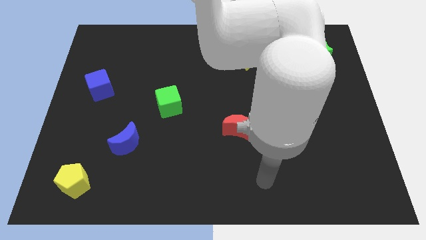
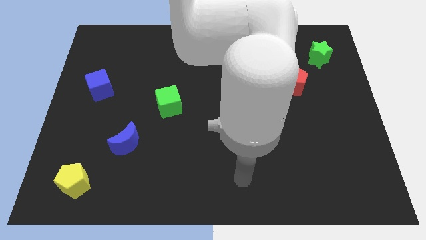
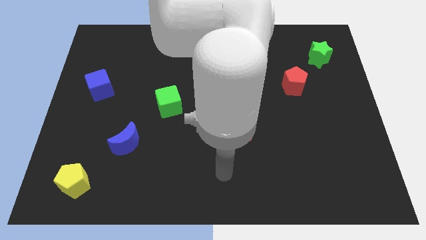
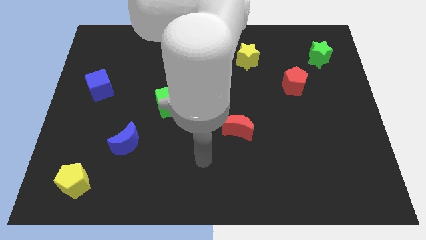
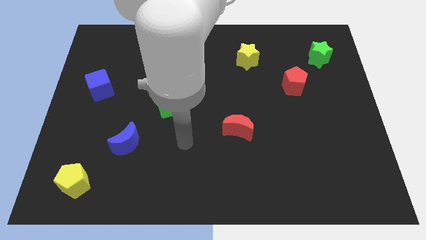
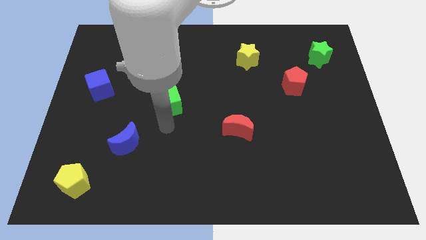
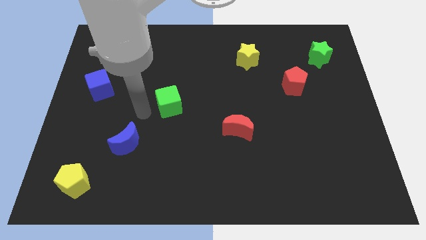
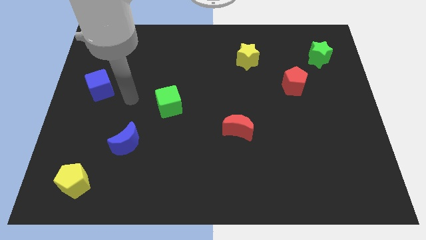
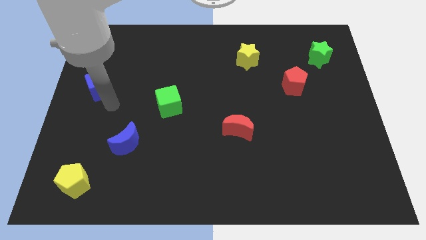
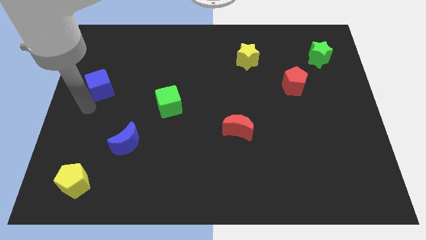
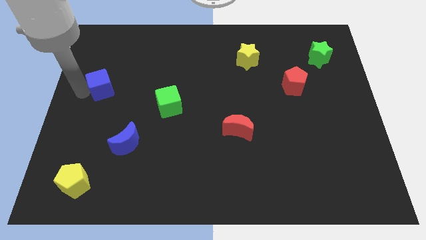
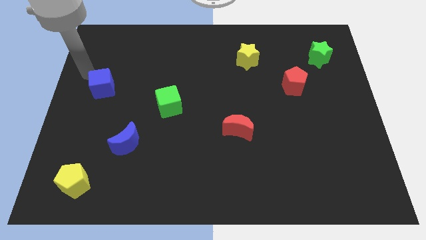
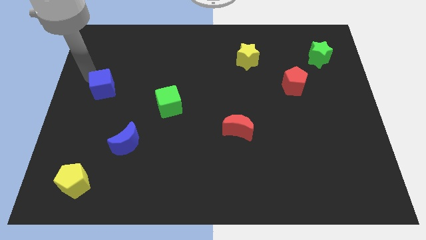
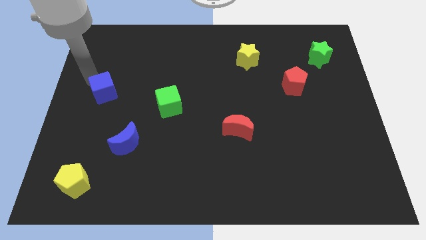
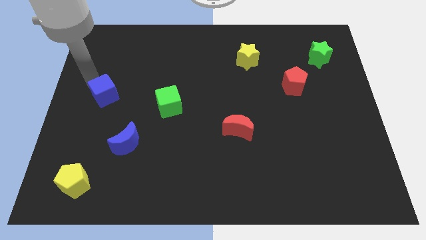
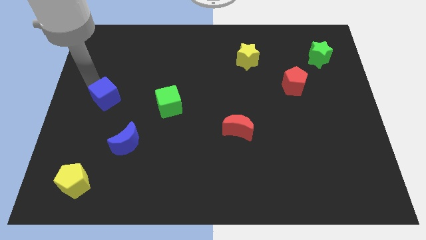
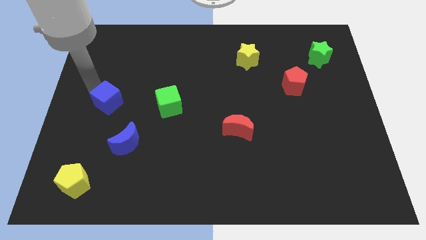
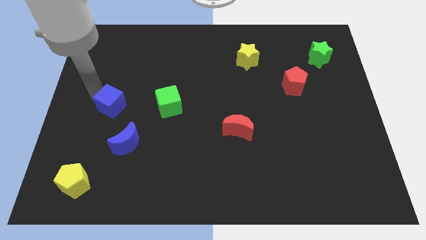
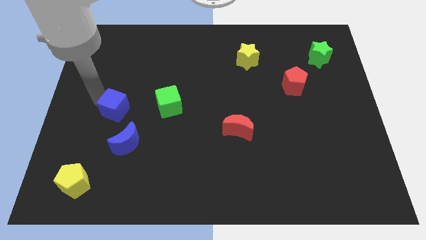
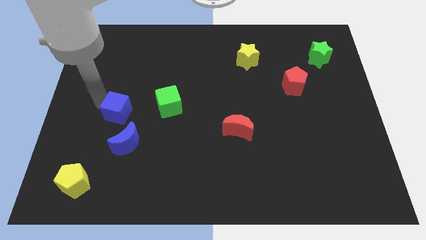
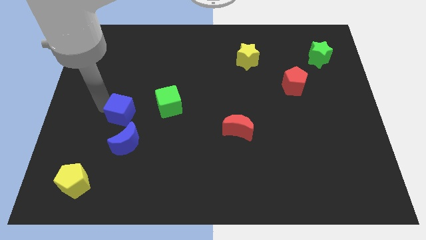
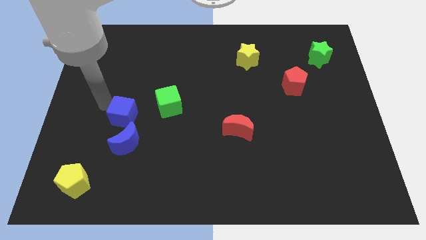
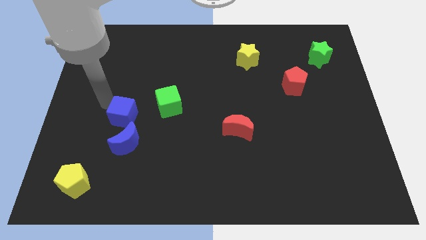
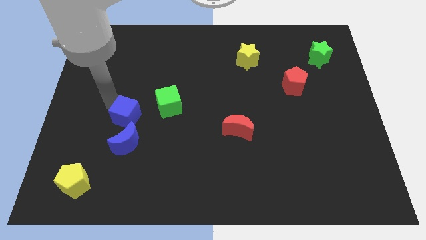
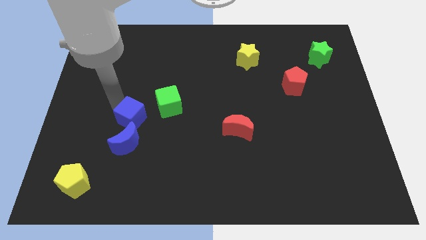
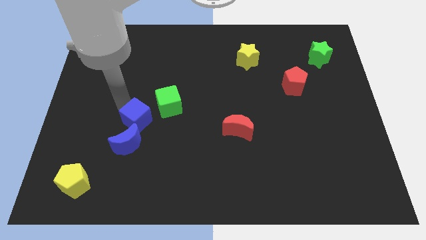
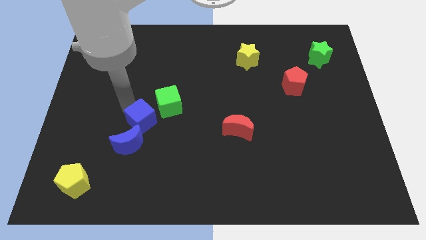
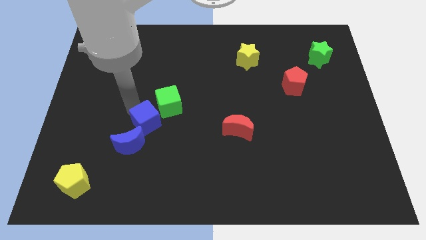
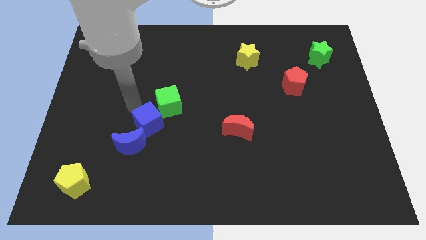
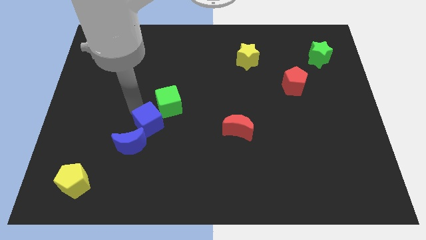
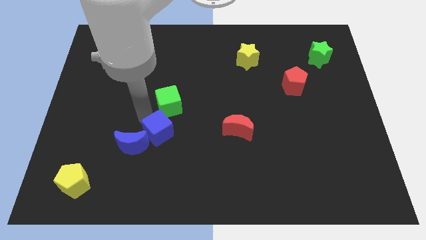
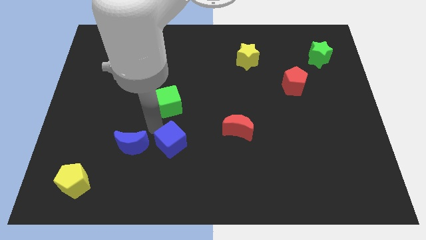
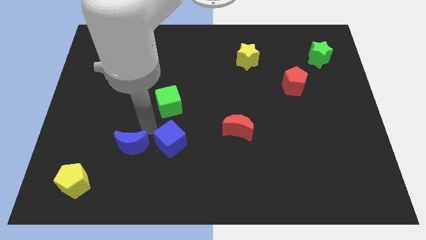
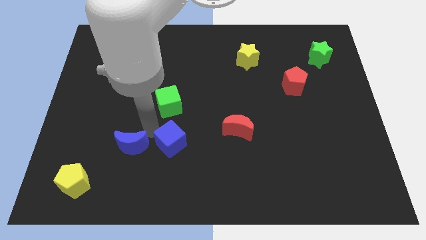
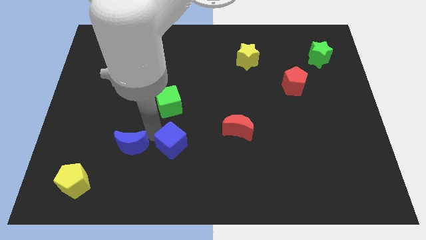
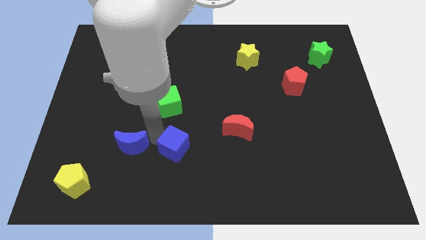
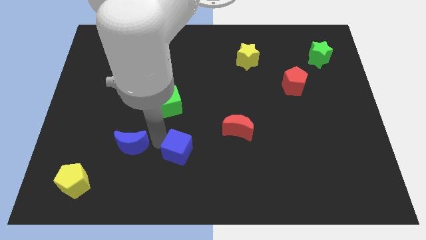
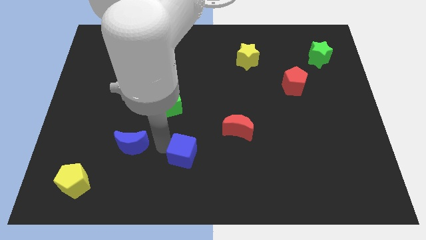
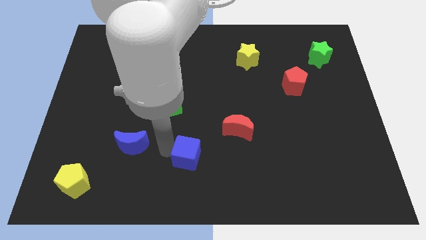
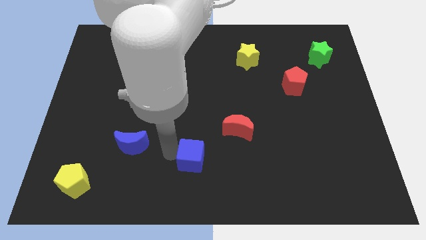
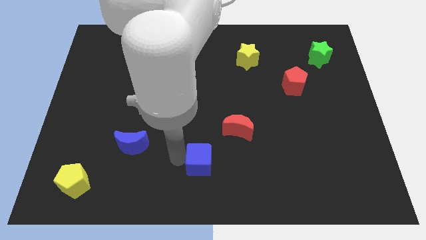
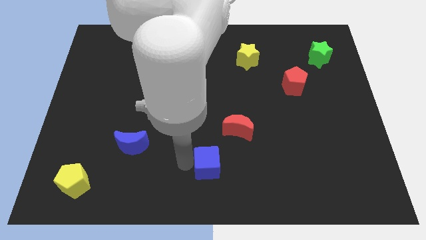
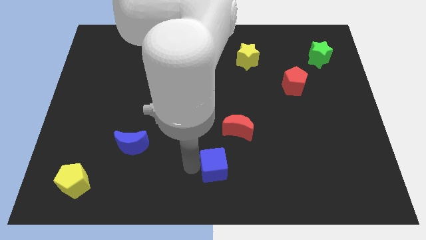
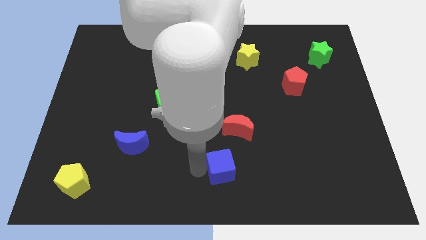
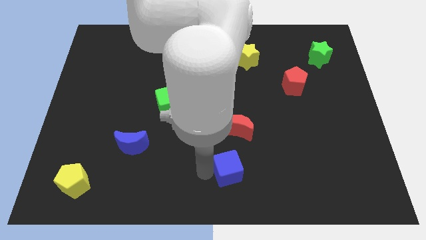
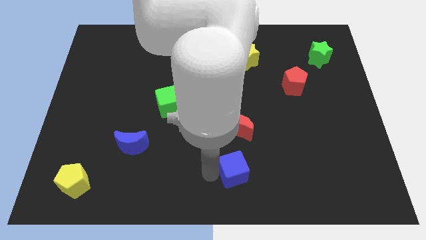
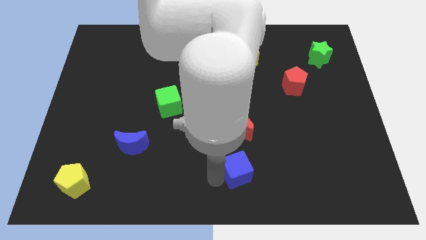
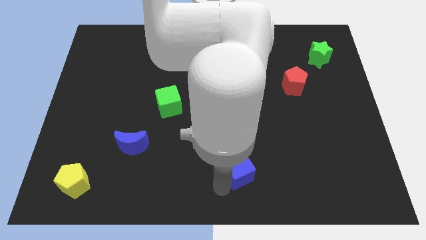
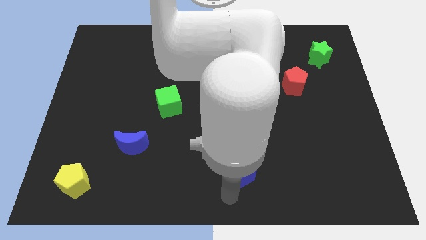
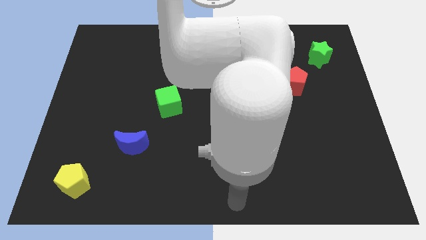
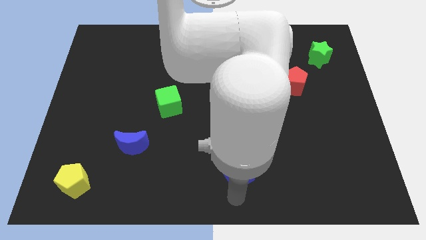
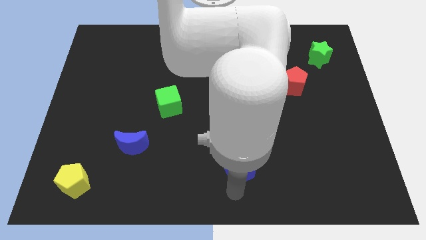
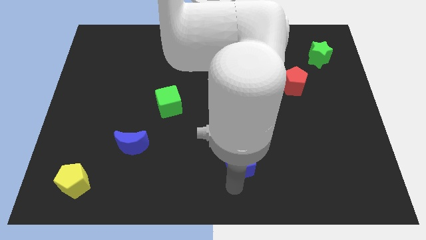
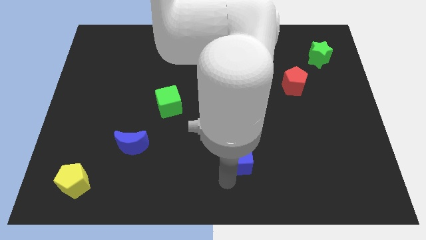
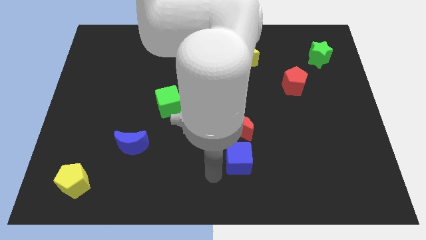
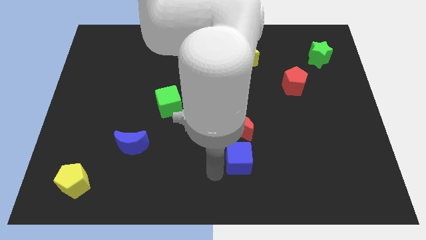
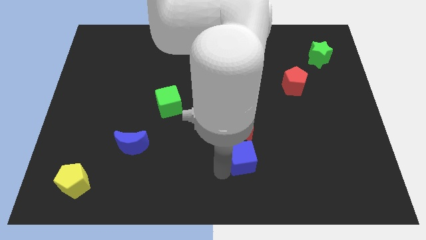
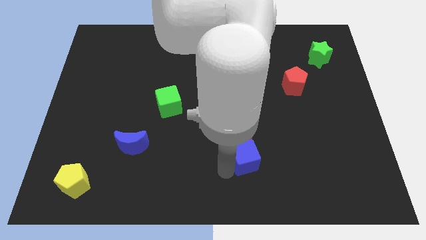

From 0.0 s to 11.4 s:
slide the blue cube diagonally down and to the right of the red moon

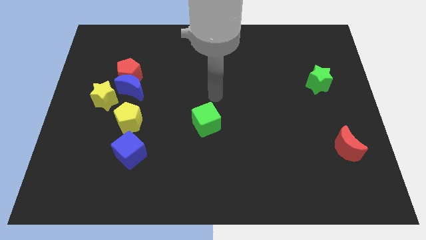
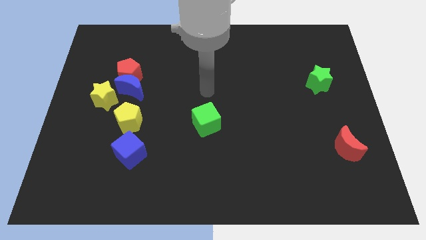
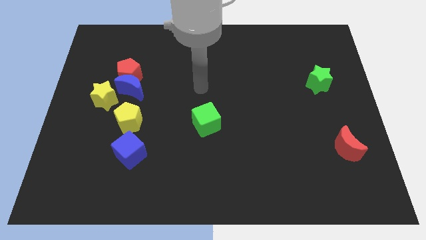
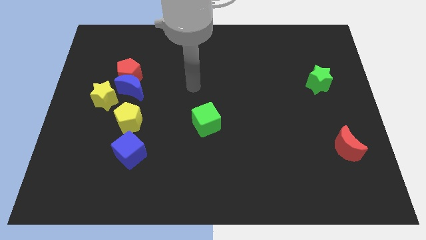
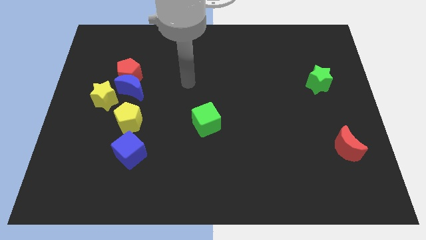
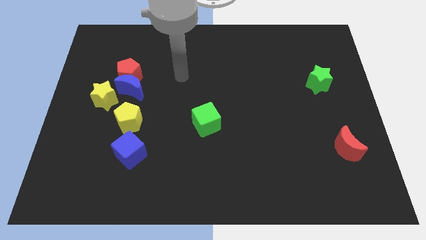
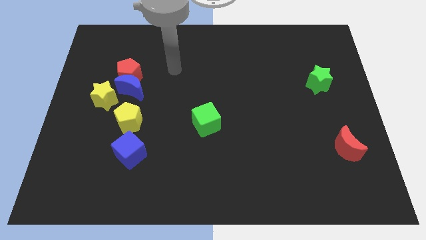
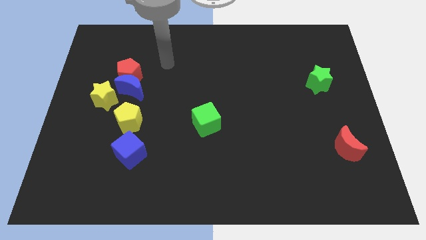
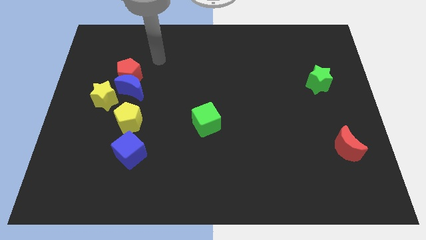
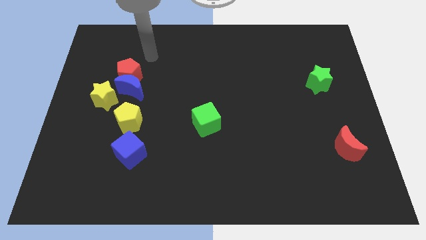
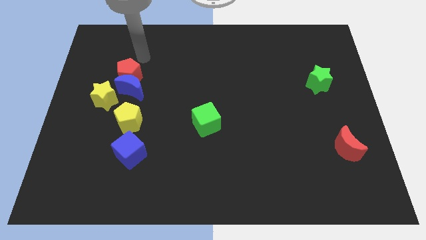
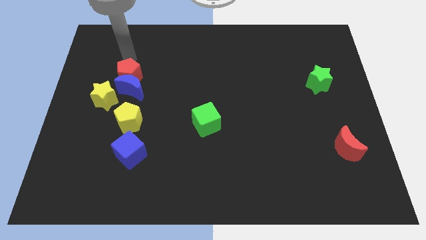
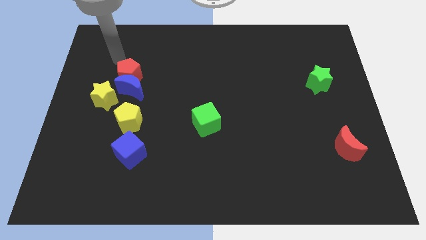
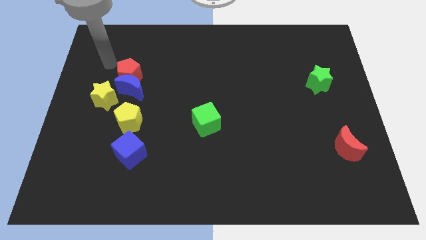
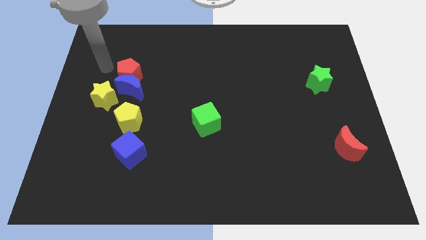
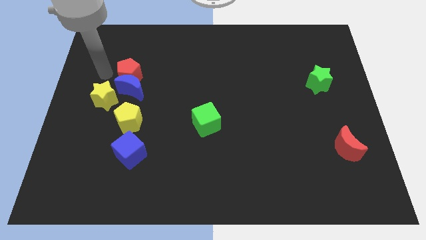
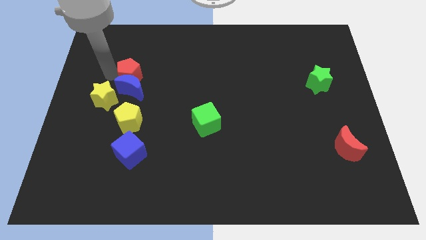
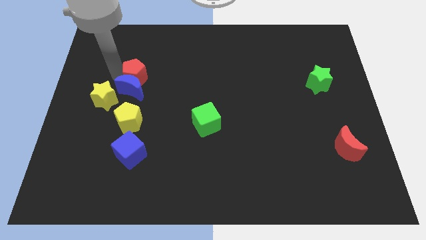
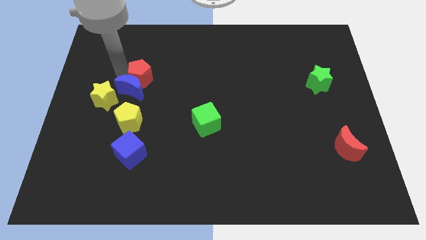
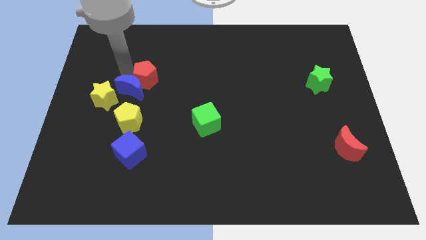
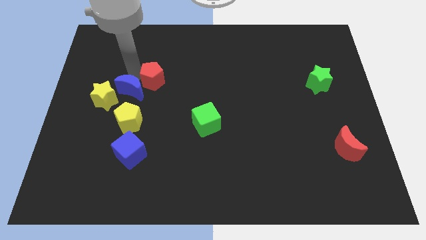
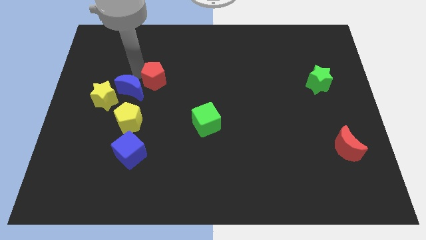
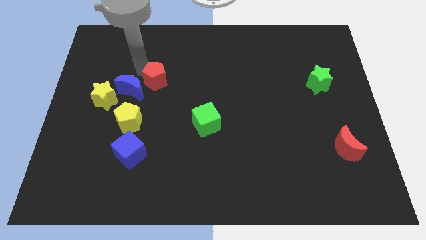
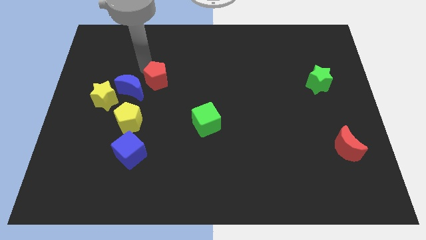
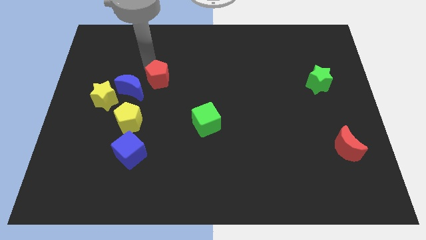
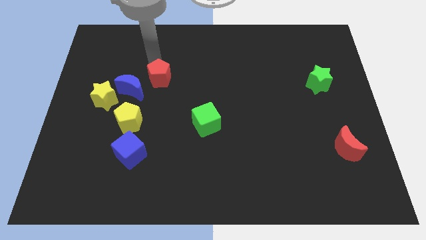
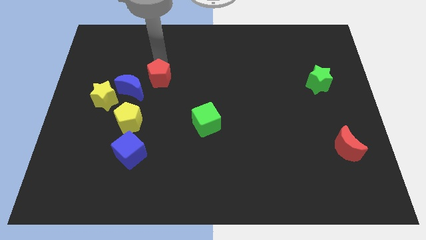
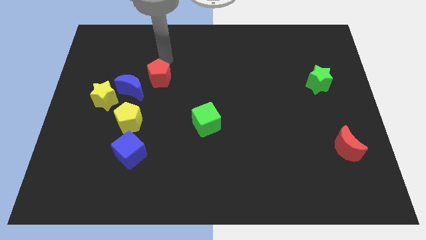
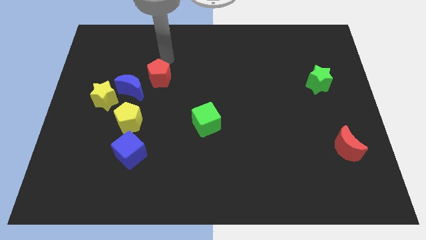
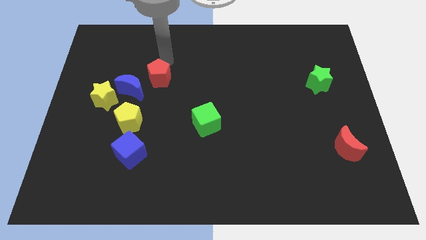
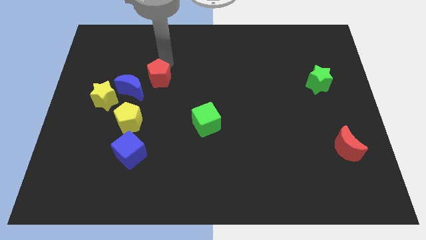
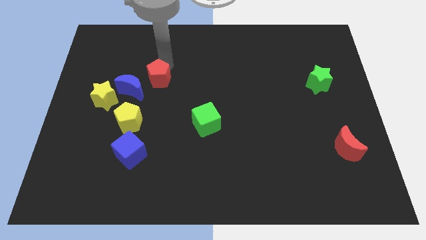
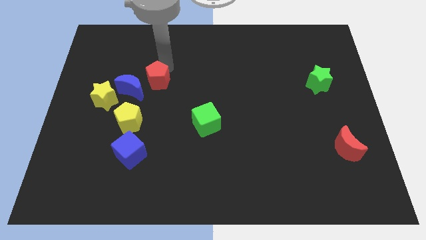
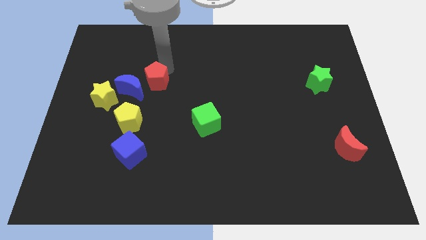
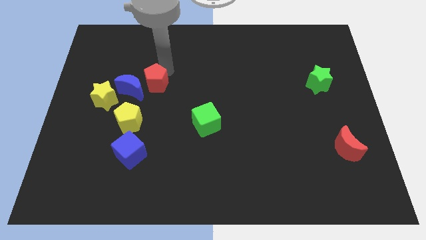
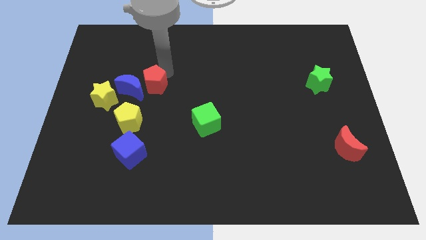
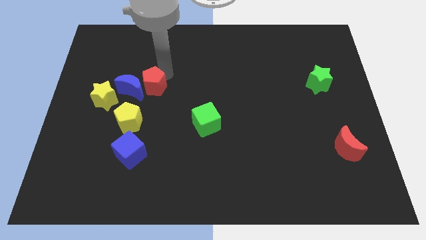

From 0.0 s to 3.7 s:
push the red pentagon to the bottom right side of the blue moon
